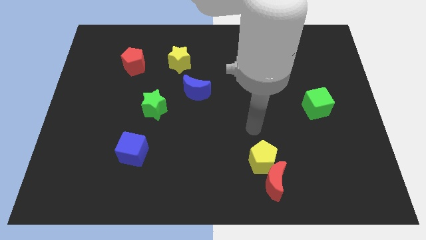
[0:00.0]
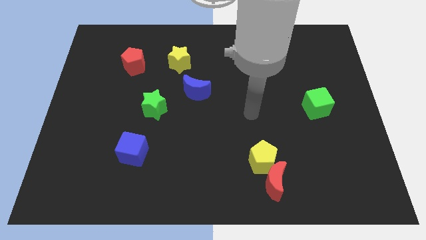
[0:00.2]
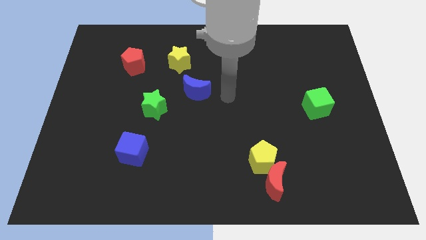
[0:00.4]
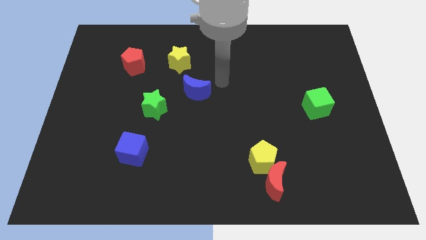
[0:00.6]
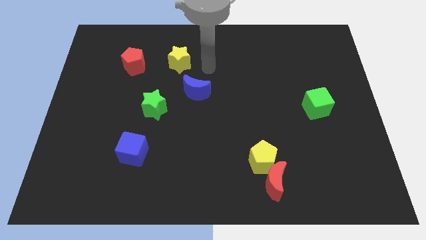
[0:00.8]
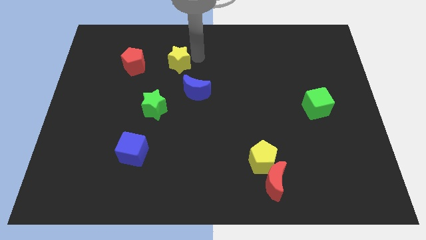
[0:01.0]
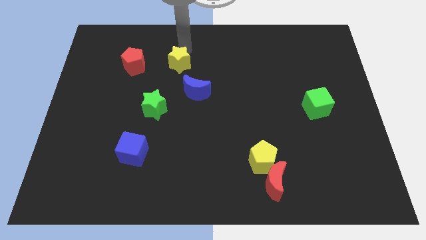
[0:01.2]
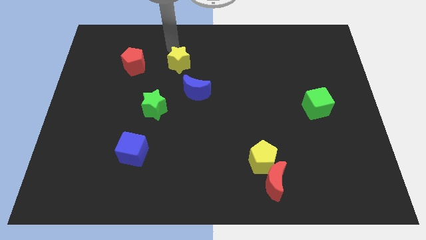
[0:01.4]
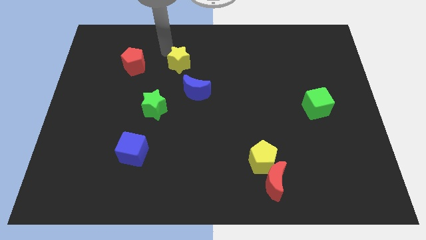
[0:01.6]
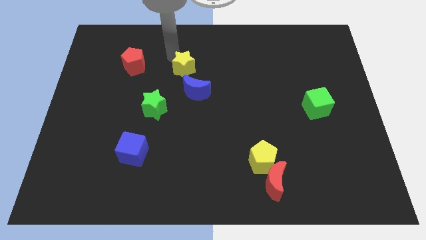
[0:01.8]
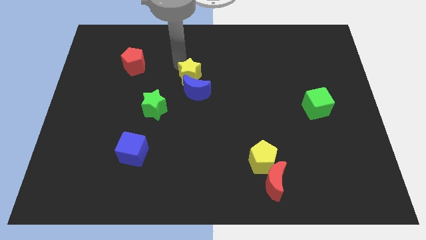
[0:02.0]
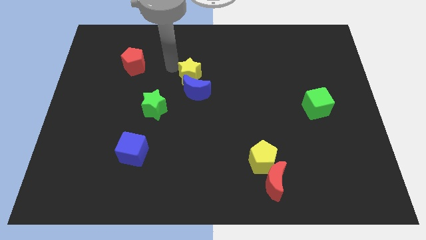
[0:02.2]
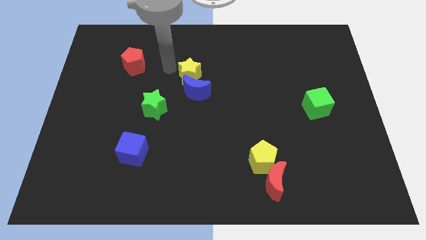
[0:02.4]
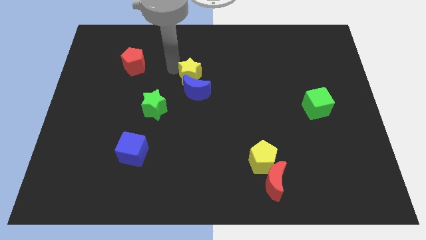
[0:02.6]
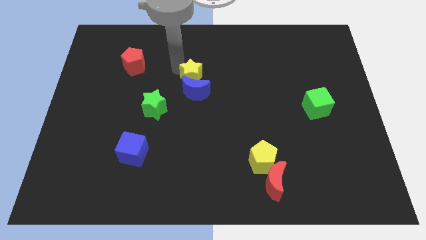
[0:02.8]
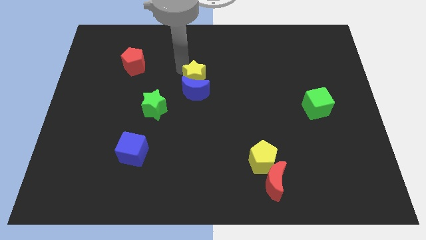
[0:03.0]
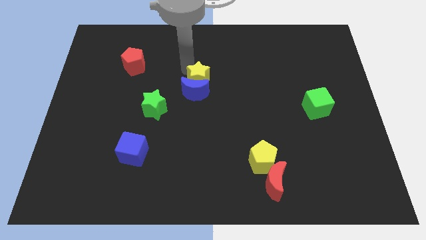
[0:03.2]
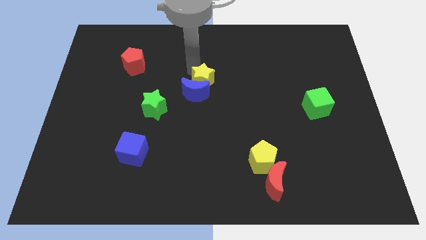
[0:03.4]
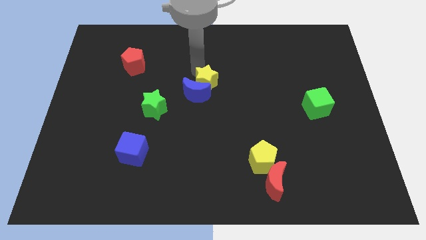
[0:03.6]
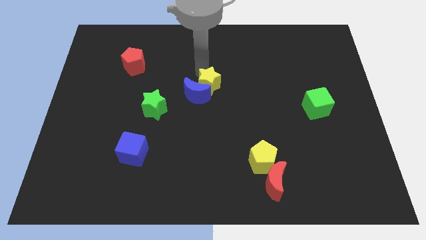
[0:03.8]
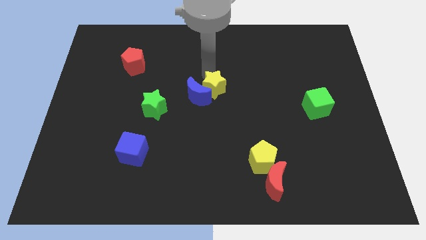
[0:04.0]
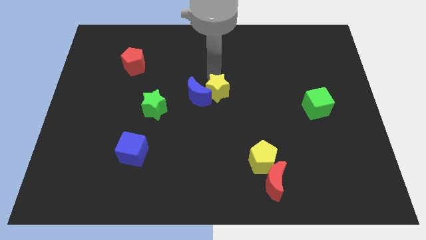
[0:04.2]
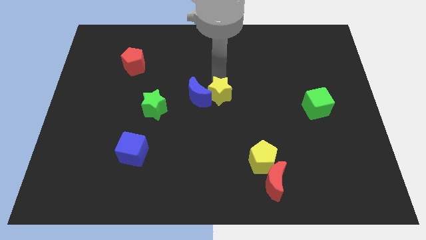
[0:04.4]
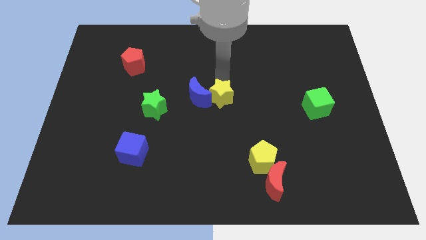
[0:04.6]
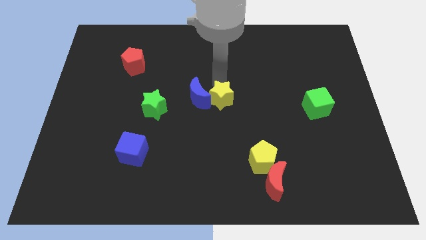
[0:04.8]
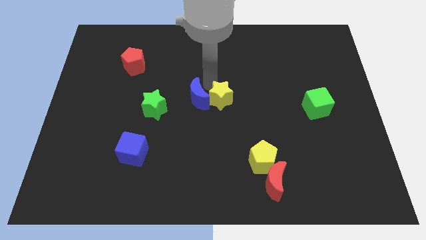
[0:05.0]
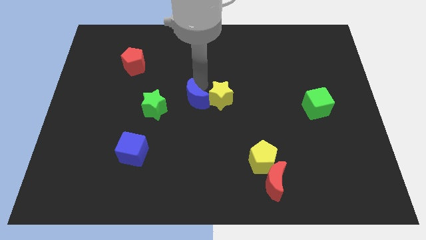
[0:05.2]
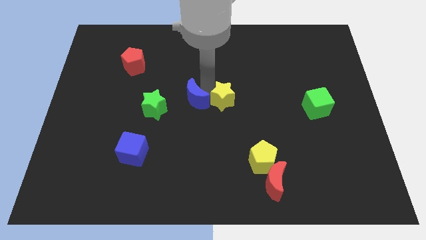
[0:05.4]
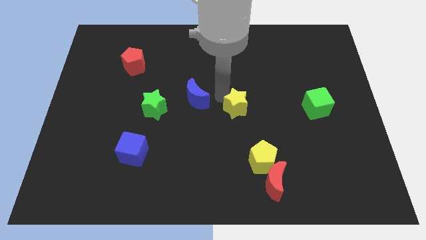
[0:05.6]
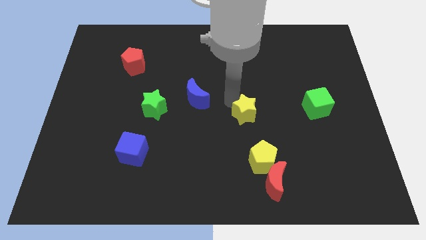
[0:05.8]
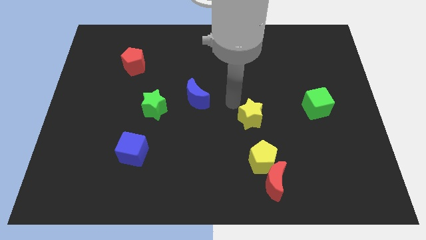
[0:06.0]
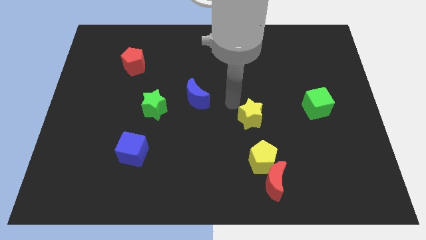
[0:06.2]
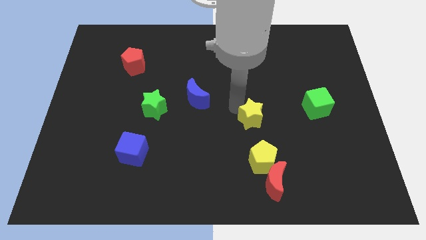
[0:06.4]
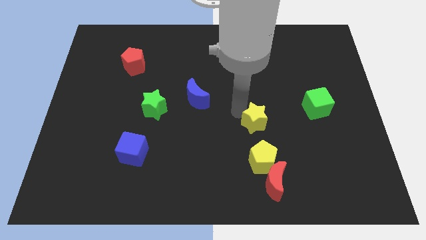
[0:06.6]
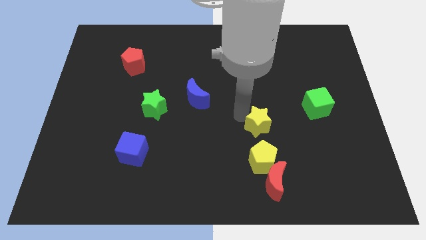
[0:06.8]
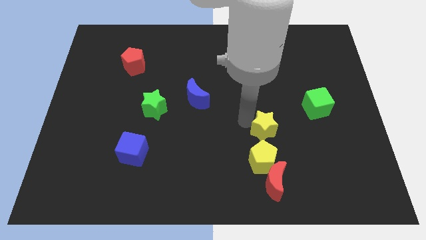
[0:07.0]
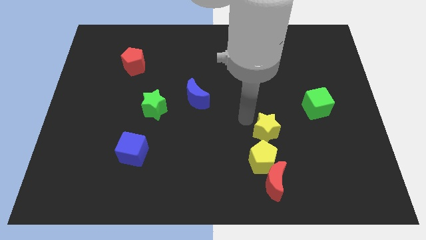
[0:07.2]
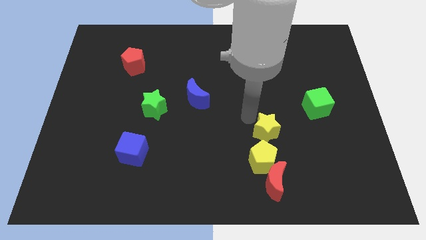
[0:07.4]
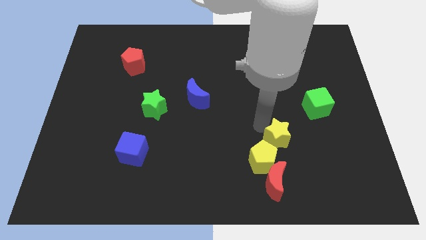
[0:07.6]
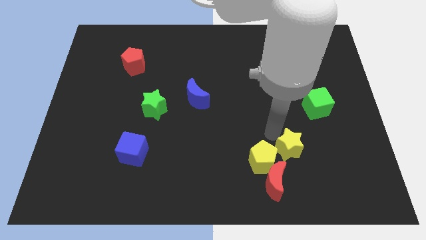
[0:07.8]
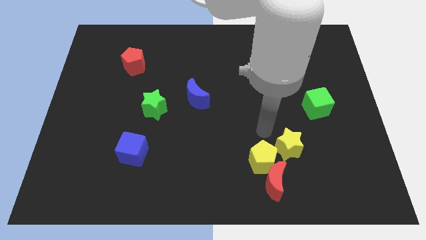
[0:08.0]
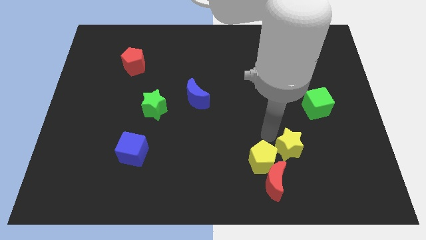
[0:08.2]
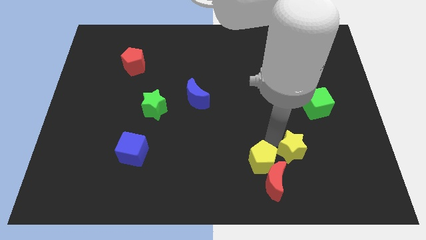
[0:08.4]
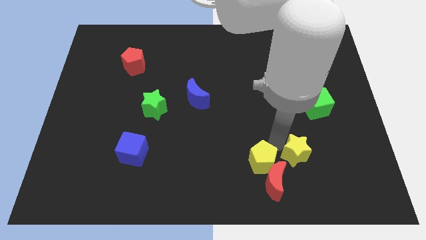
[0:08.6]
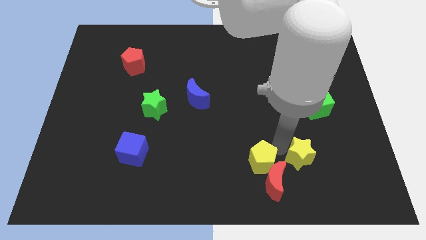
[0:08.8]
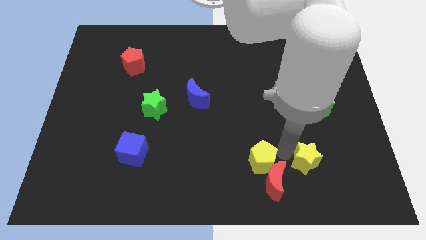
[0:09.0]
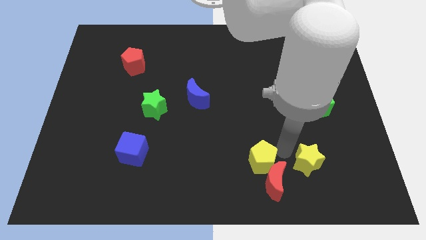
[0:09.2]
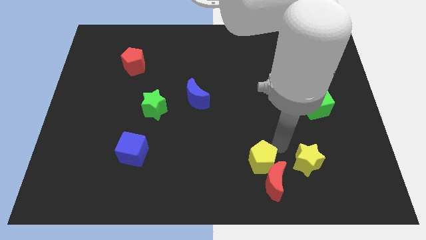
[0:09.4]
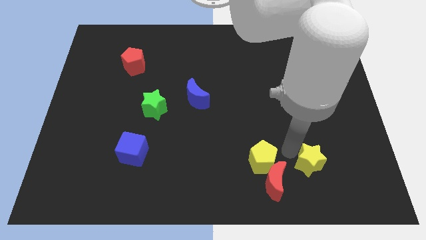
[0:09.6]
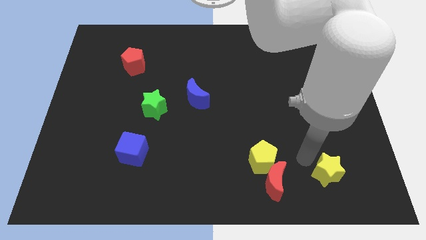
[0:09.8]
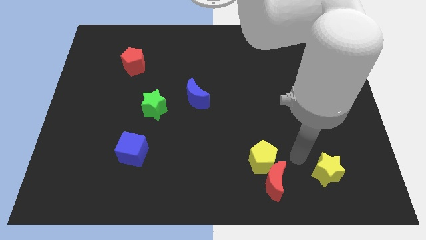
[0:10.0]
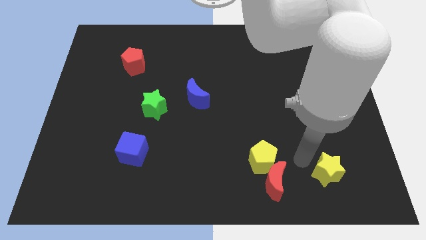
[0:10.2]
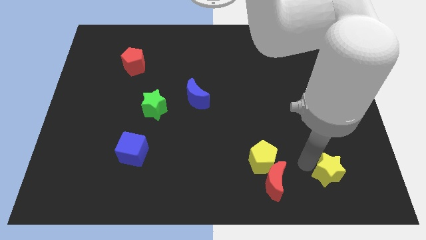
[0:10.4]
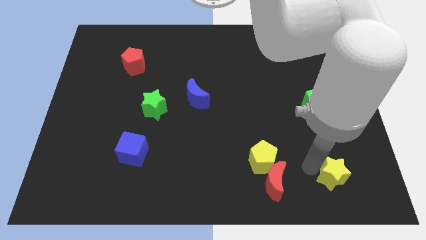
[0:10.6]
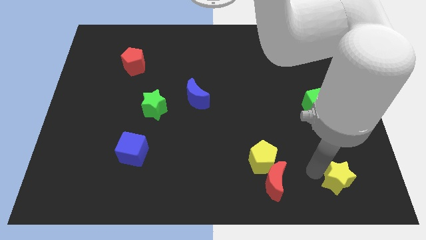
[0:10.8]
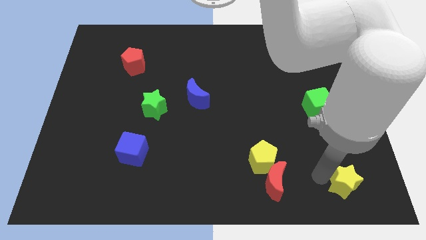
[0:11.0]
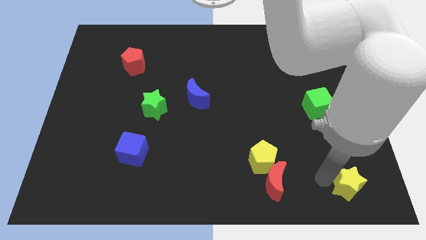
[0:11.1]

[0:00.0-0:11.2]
push the yellow star to the lower right corner

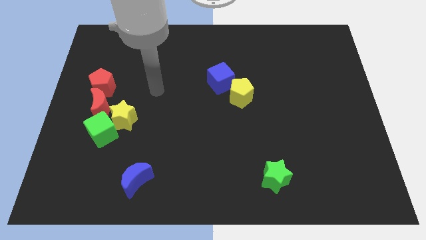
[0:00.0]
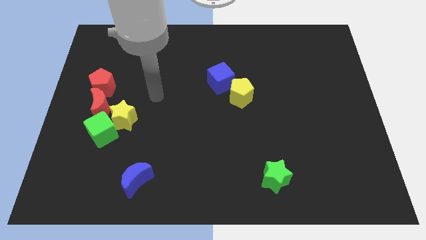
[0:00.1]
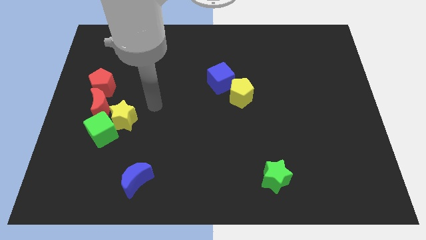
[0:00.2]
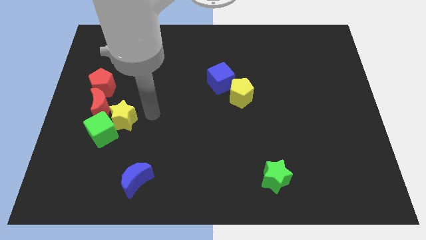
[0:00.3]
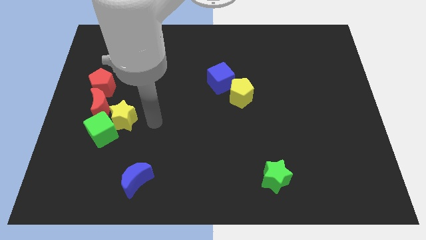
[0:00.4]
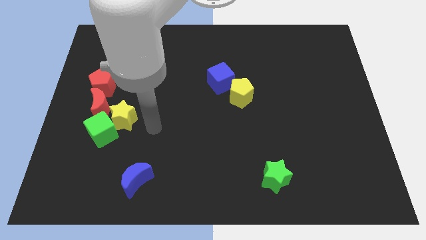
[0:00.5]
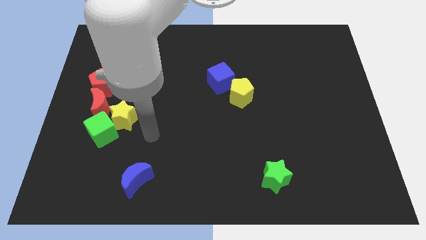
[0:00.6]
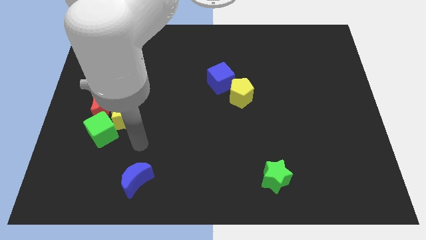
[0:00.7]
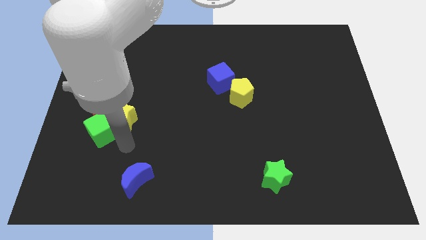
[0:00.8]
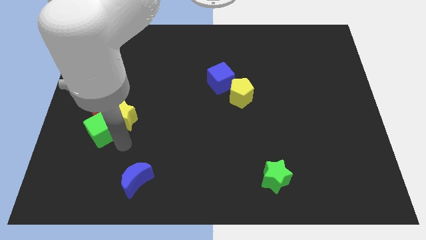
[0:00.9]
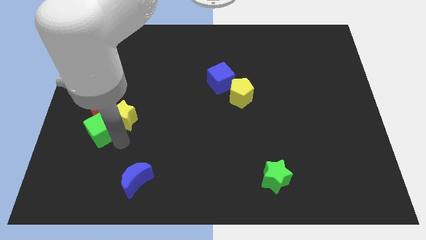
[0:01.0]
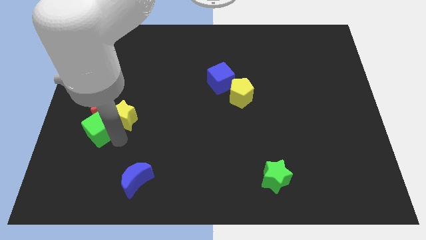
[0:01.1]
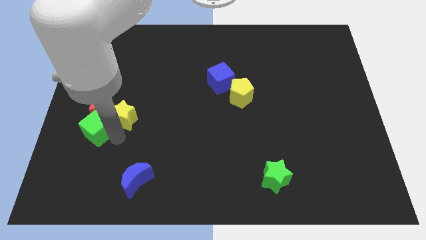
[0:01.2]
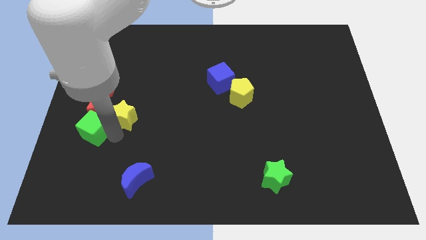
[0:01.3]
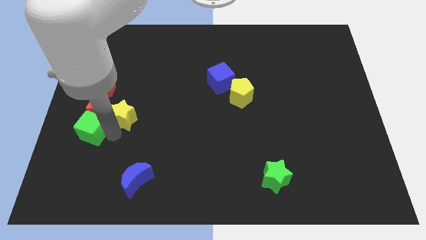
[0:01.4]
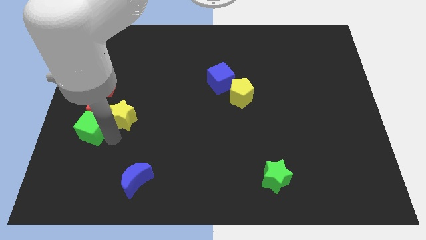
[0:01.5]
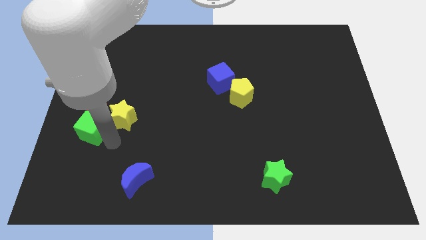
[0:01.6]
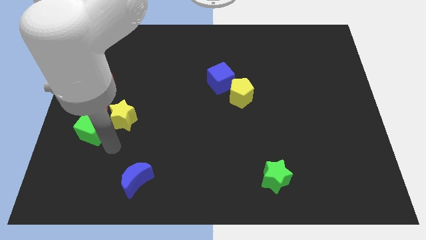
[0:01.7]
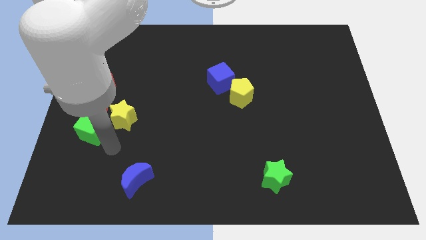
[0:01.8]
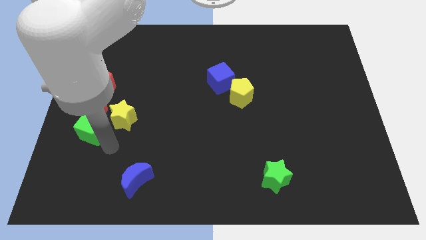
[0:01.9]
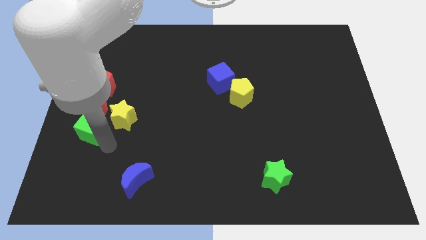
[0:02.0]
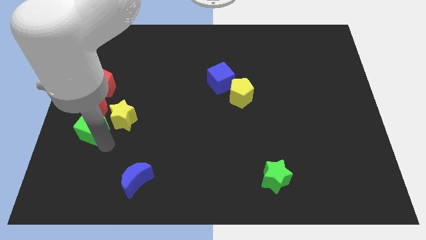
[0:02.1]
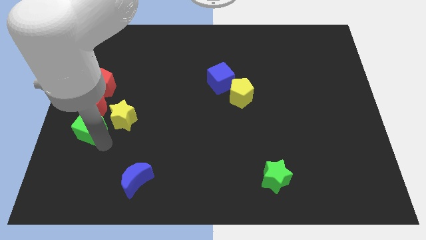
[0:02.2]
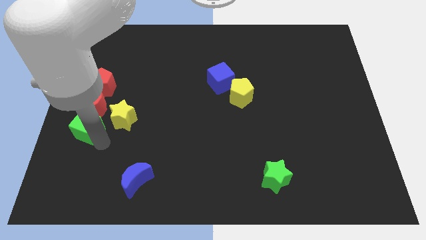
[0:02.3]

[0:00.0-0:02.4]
push the green cube to the left side
